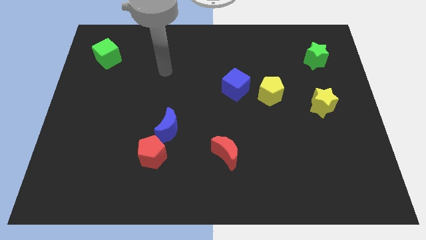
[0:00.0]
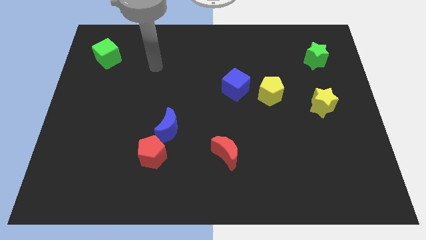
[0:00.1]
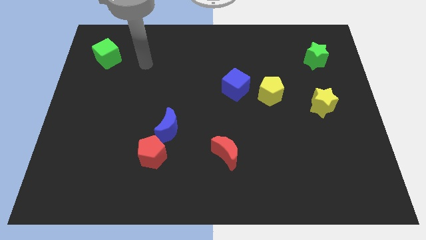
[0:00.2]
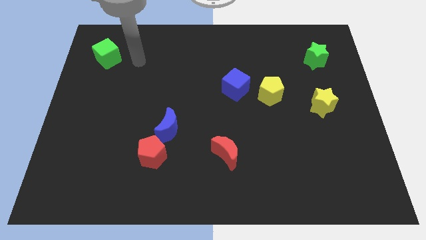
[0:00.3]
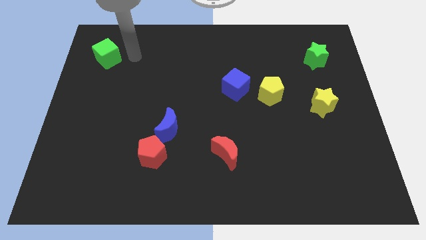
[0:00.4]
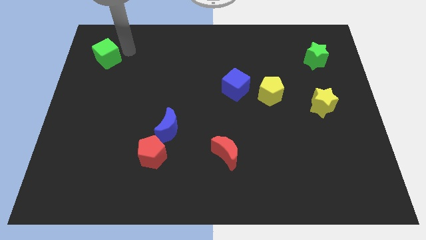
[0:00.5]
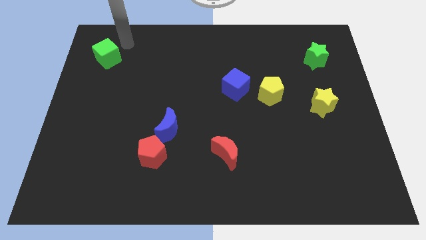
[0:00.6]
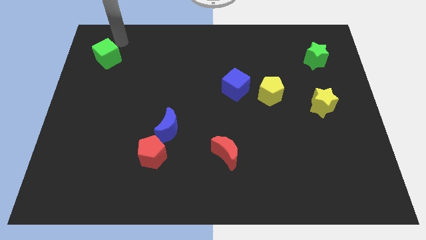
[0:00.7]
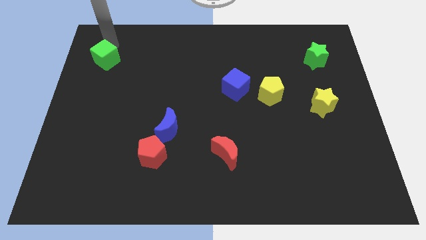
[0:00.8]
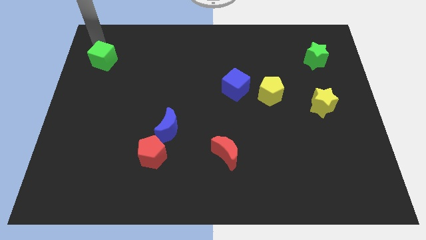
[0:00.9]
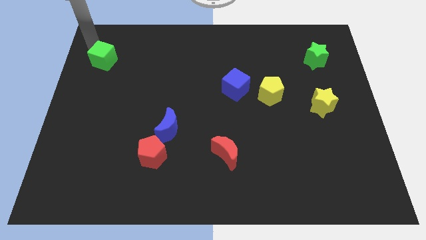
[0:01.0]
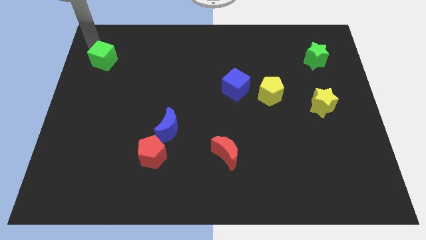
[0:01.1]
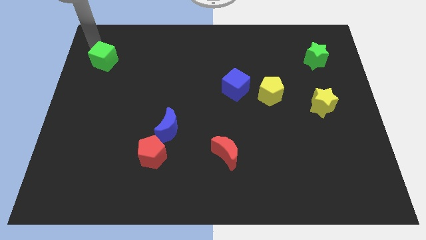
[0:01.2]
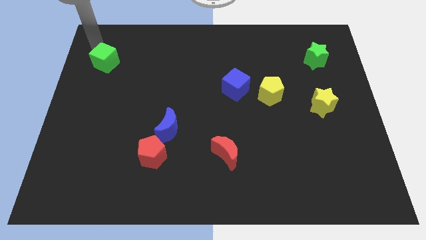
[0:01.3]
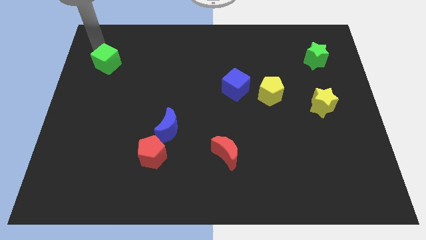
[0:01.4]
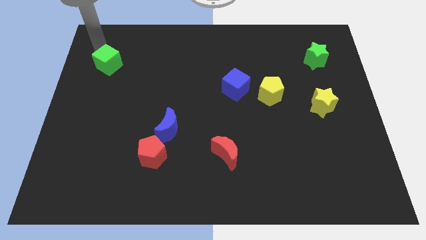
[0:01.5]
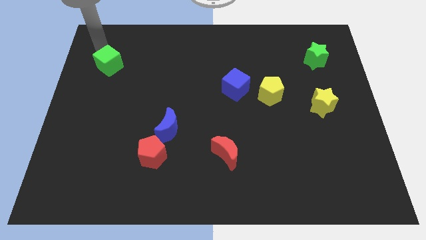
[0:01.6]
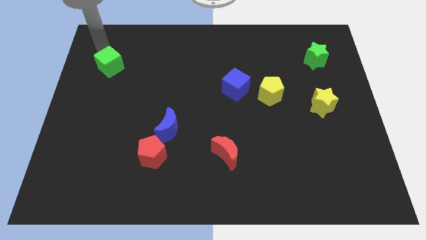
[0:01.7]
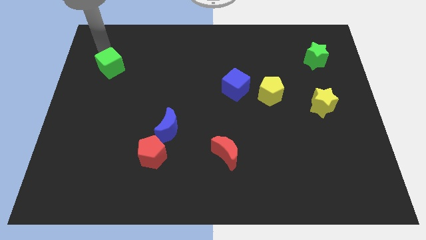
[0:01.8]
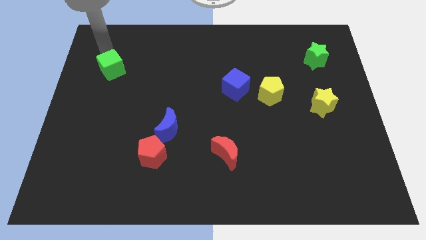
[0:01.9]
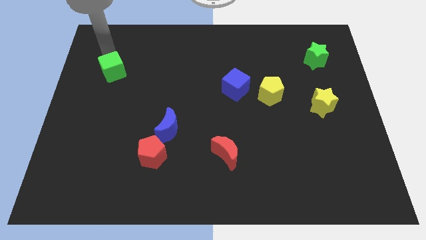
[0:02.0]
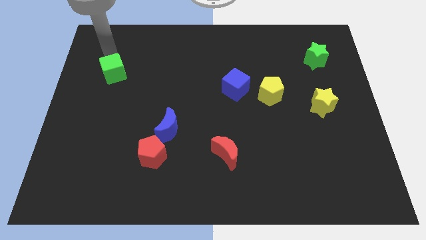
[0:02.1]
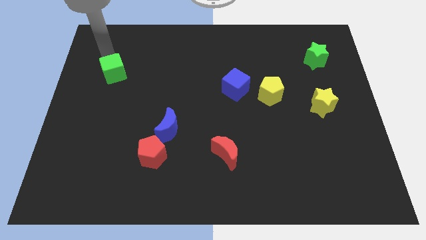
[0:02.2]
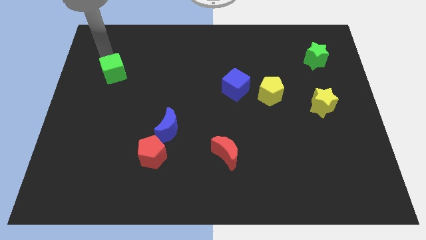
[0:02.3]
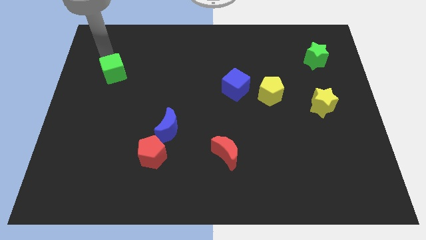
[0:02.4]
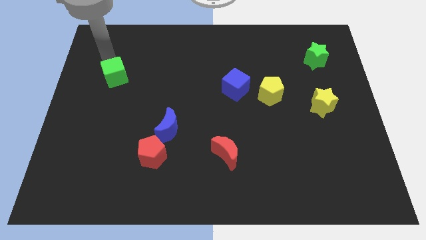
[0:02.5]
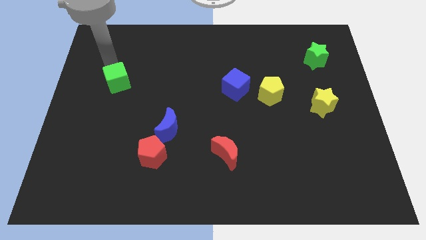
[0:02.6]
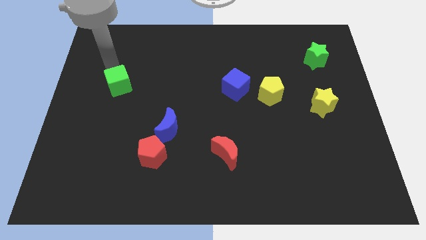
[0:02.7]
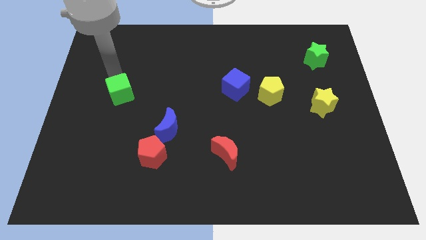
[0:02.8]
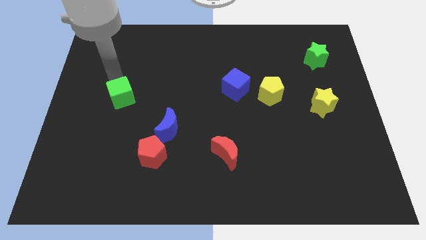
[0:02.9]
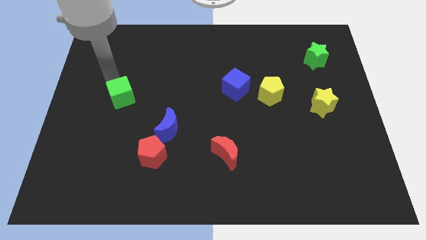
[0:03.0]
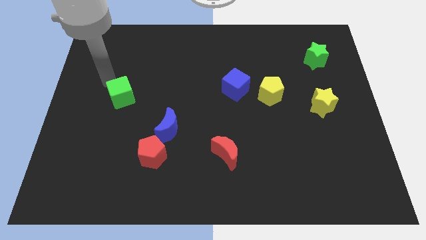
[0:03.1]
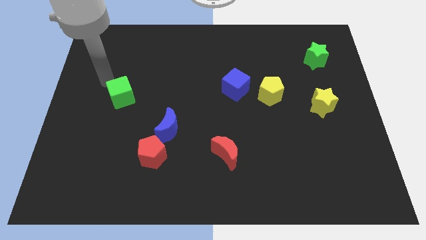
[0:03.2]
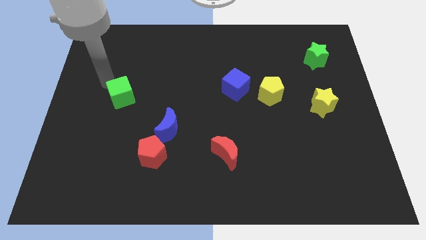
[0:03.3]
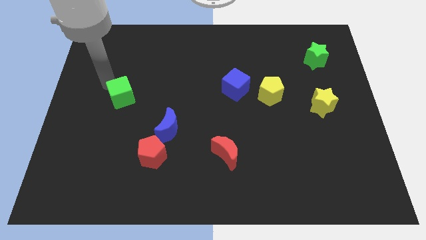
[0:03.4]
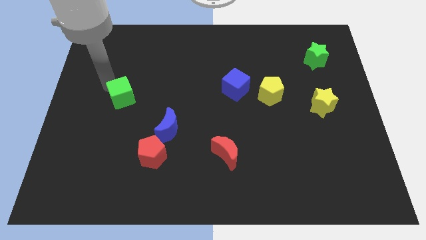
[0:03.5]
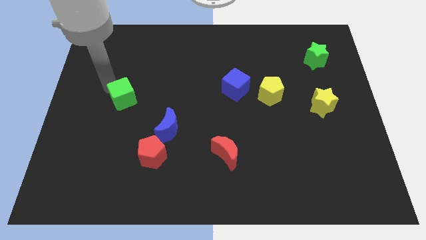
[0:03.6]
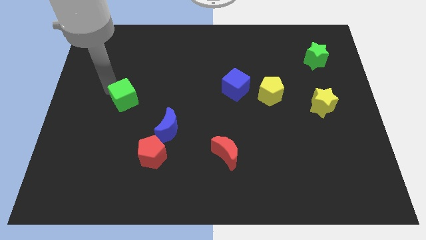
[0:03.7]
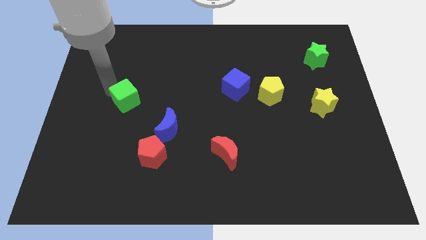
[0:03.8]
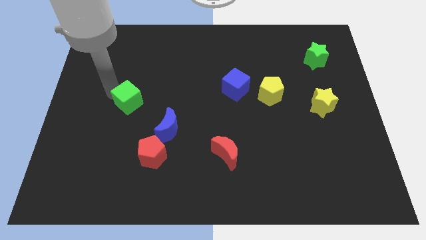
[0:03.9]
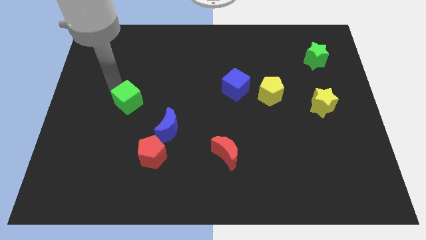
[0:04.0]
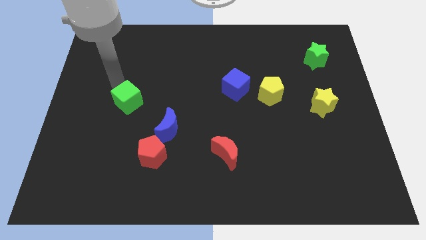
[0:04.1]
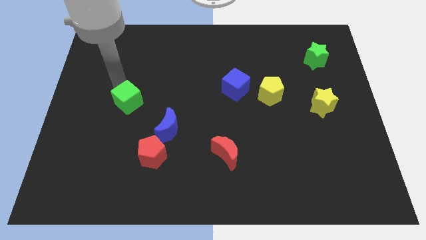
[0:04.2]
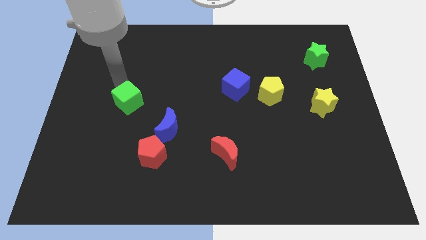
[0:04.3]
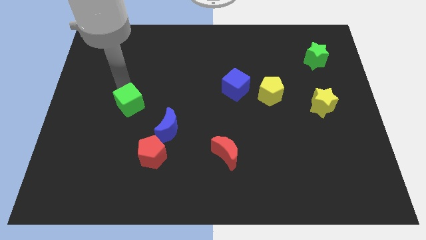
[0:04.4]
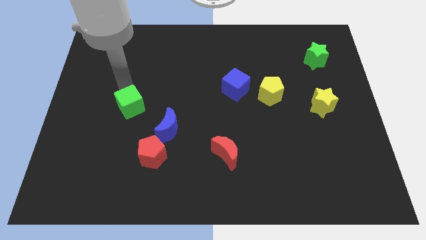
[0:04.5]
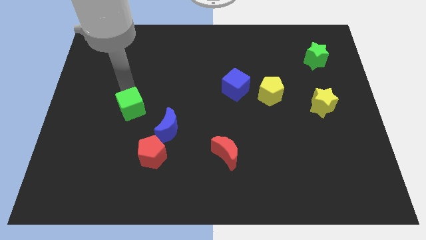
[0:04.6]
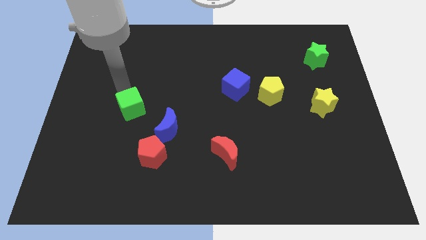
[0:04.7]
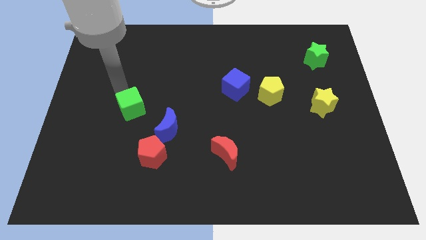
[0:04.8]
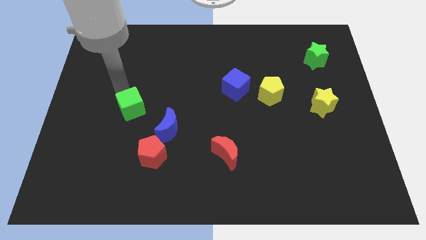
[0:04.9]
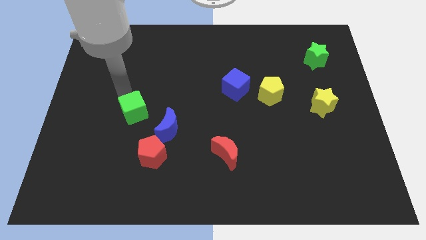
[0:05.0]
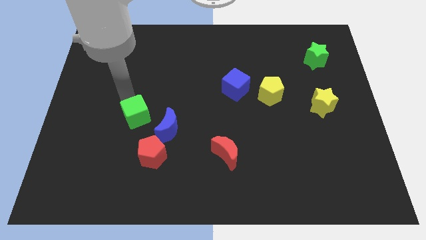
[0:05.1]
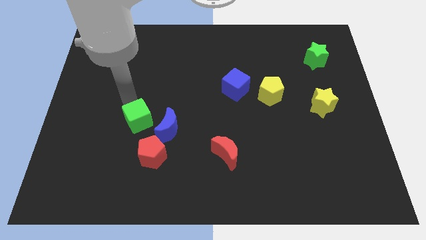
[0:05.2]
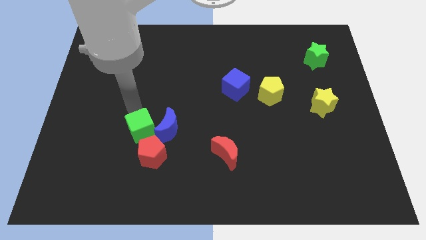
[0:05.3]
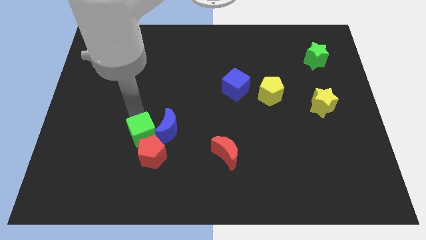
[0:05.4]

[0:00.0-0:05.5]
slide the green cube to the red pentagon

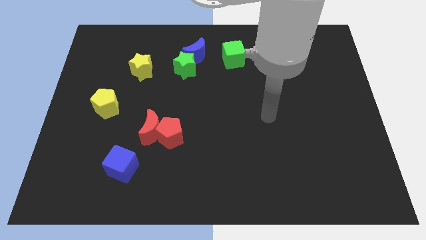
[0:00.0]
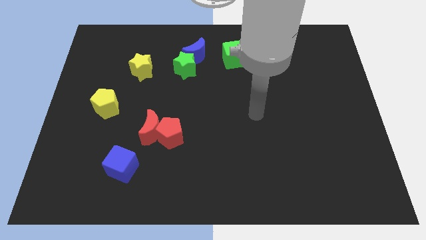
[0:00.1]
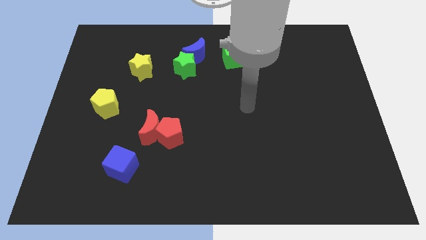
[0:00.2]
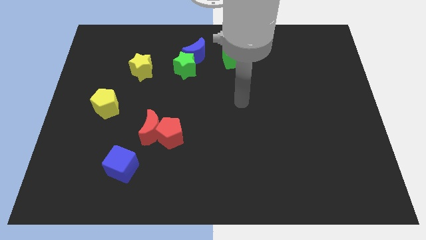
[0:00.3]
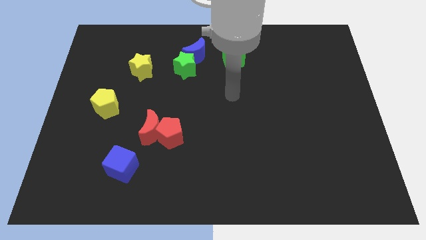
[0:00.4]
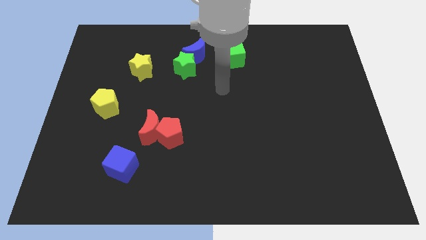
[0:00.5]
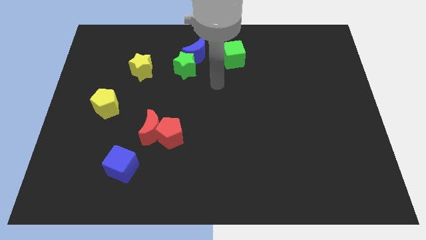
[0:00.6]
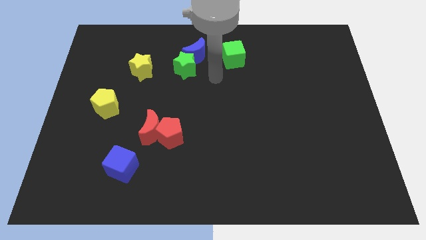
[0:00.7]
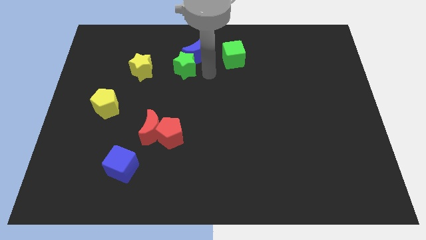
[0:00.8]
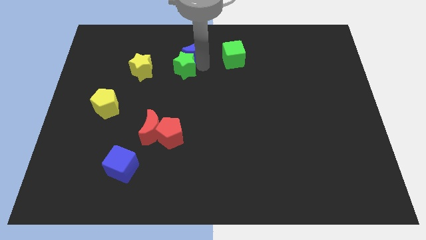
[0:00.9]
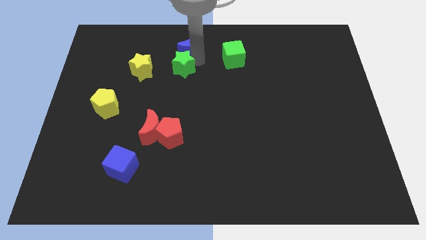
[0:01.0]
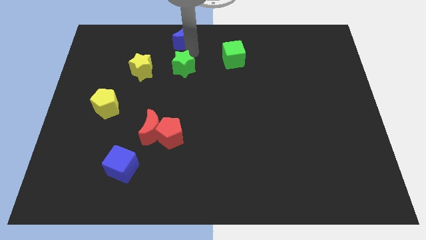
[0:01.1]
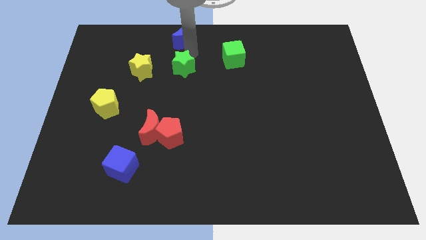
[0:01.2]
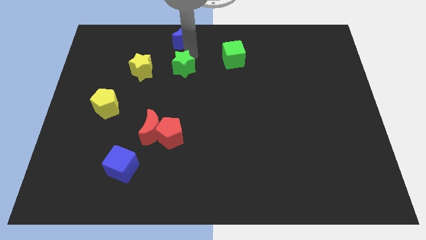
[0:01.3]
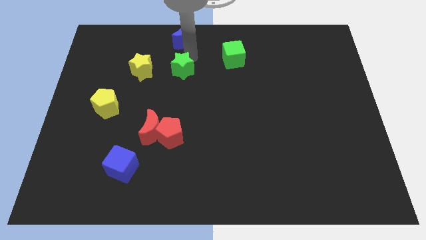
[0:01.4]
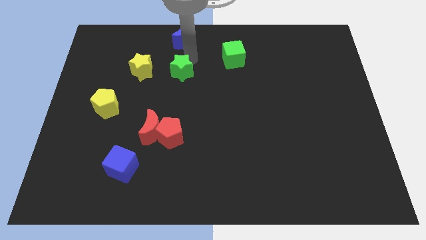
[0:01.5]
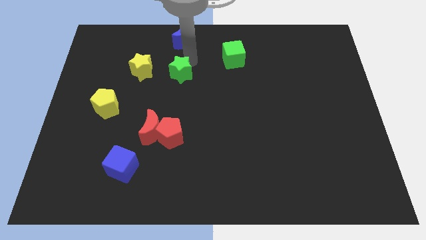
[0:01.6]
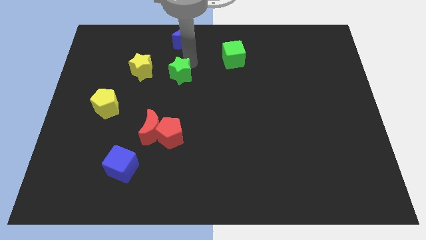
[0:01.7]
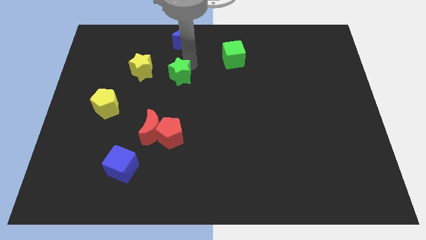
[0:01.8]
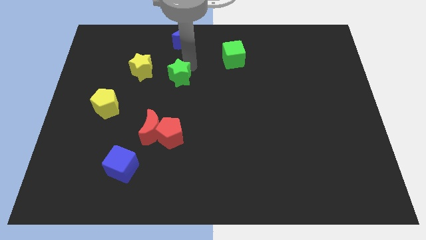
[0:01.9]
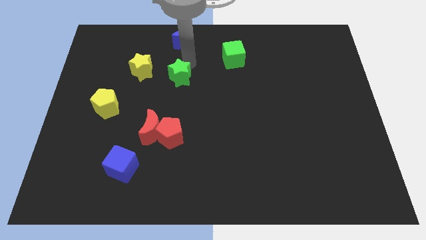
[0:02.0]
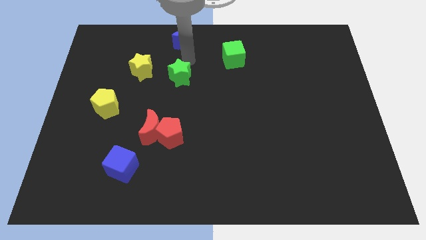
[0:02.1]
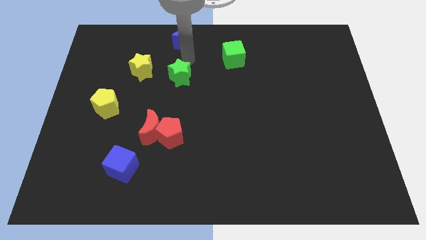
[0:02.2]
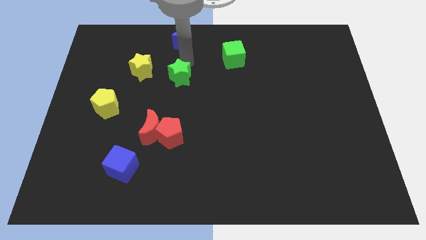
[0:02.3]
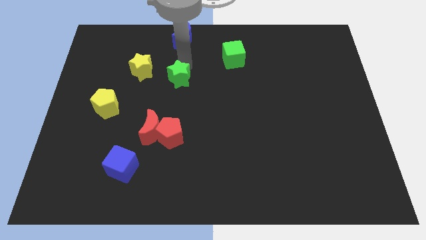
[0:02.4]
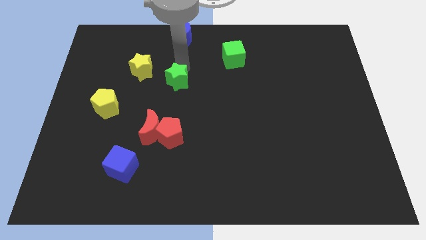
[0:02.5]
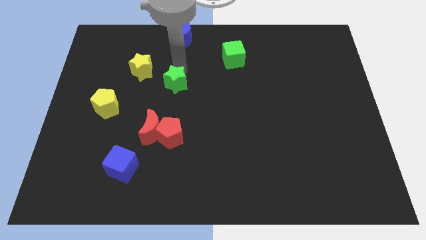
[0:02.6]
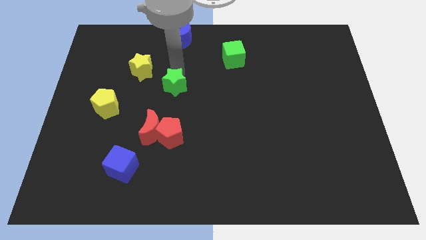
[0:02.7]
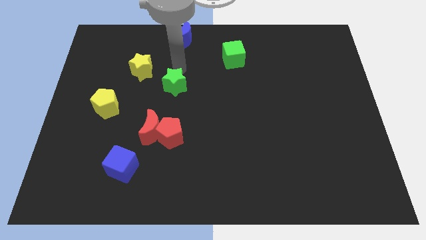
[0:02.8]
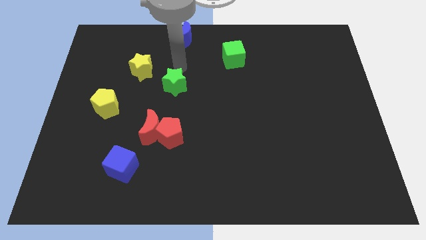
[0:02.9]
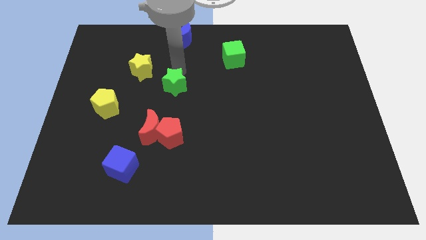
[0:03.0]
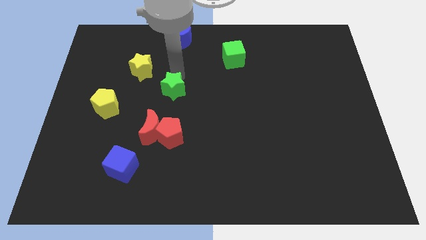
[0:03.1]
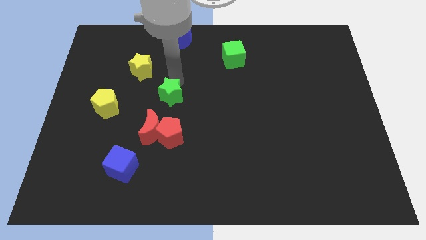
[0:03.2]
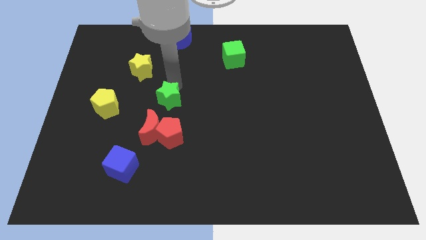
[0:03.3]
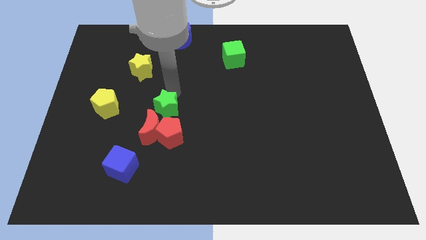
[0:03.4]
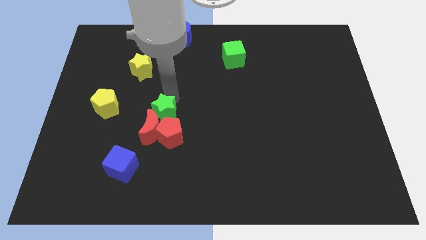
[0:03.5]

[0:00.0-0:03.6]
slide the green star close to the red moon
